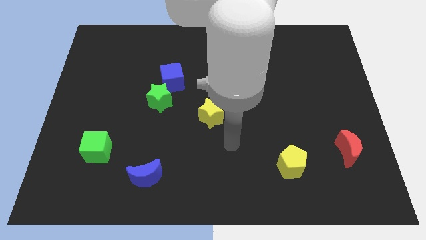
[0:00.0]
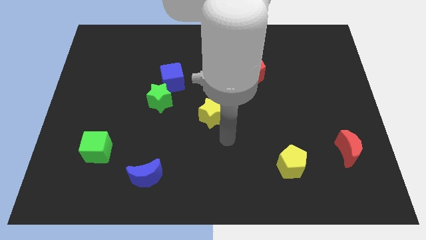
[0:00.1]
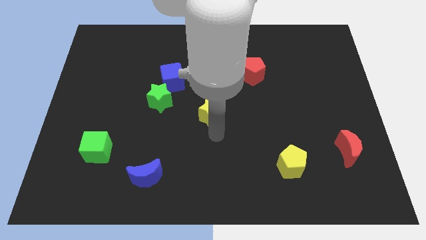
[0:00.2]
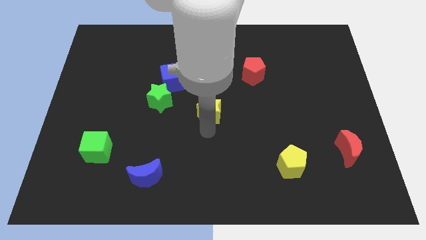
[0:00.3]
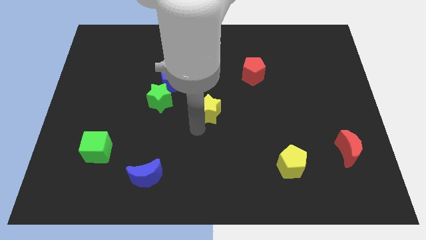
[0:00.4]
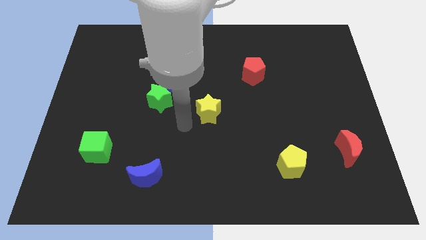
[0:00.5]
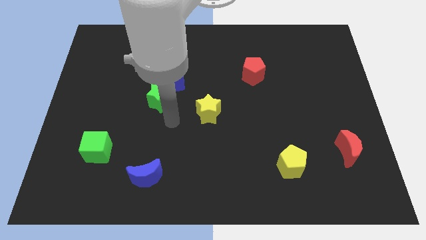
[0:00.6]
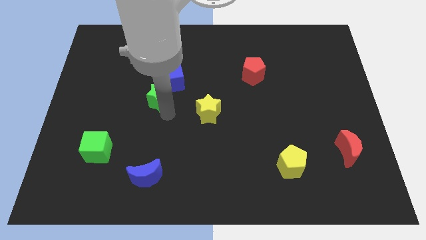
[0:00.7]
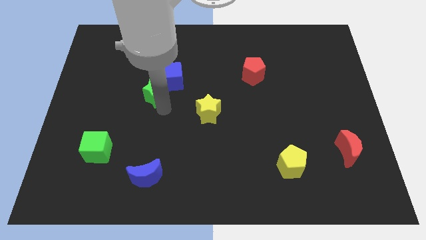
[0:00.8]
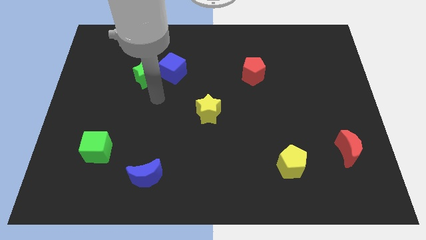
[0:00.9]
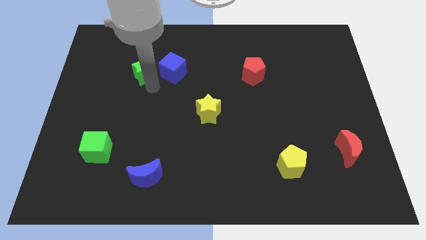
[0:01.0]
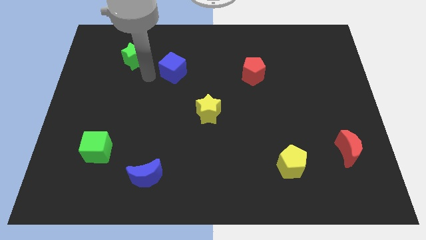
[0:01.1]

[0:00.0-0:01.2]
separate the blue cube from the green star

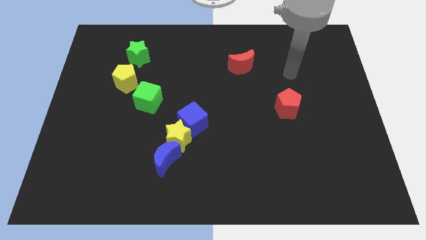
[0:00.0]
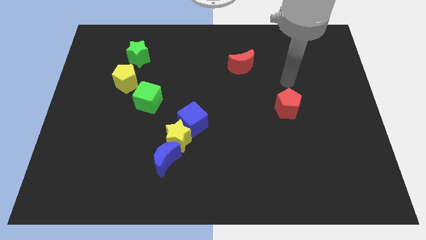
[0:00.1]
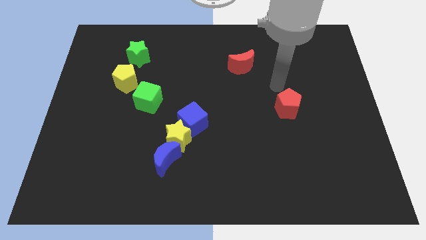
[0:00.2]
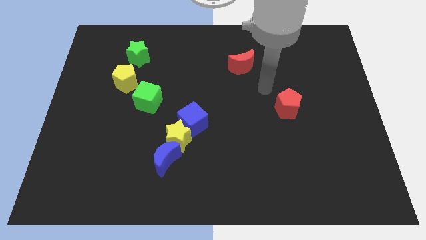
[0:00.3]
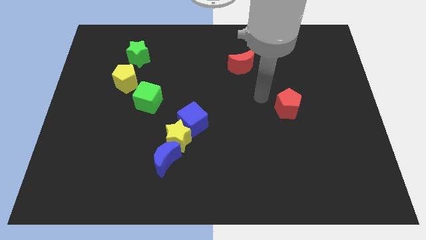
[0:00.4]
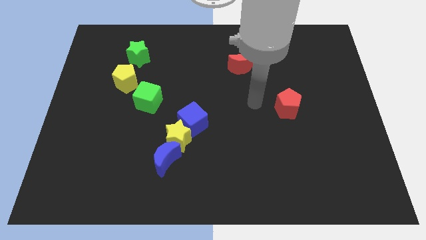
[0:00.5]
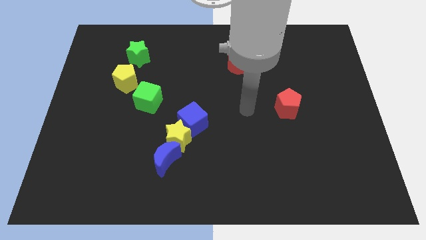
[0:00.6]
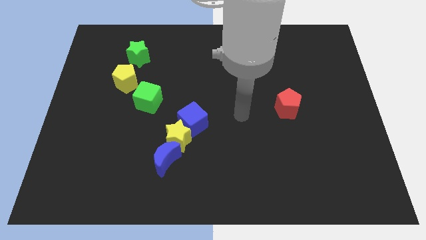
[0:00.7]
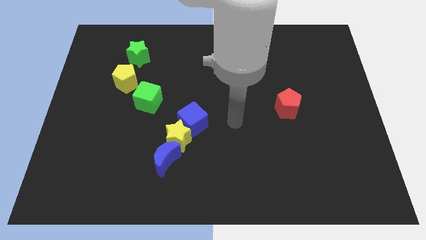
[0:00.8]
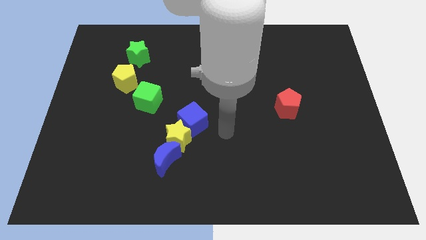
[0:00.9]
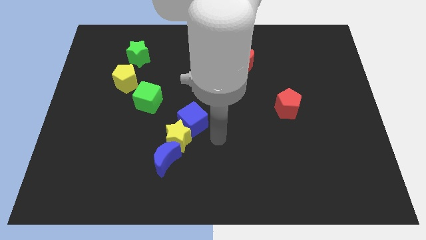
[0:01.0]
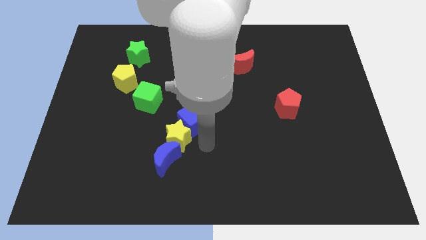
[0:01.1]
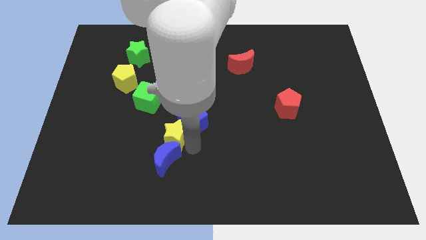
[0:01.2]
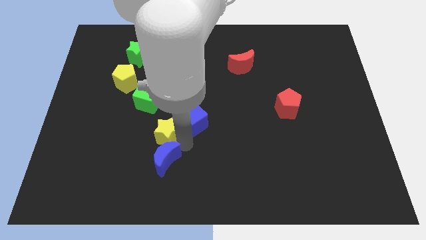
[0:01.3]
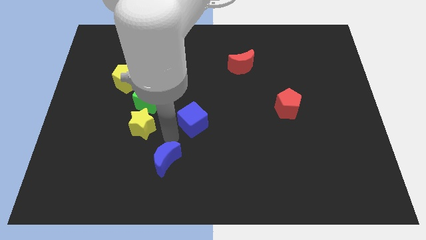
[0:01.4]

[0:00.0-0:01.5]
separate the blue cube from the yellow star

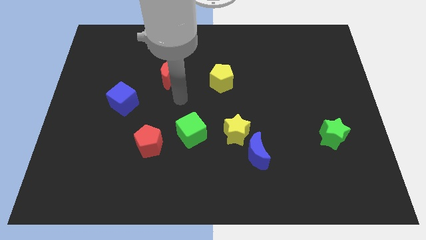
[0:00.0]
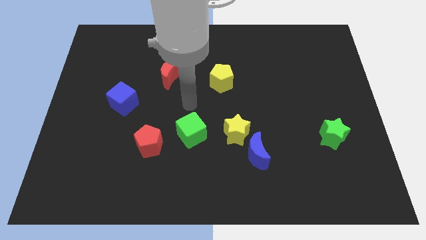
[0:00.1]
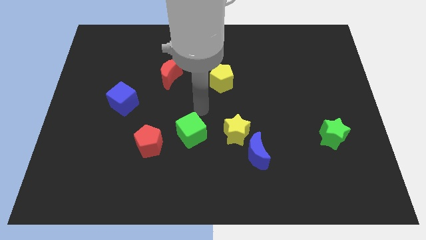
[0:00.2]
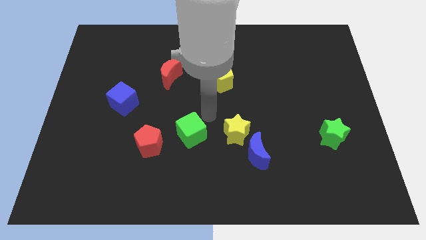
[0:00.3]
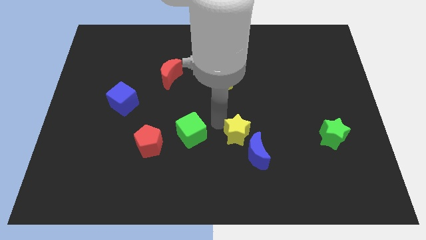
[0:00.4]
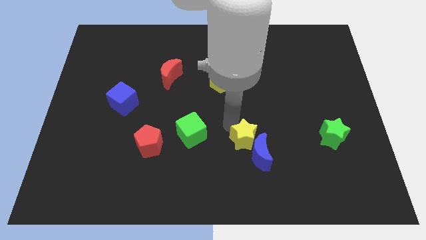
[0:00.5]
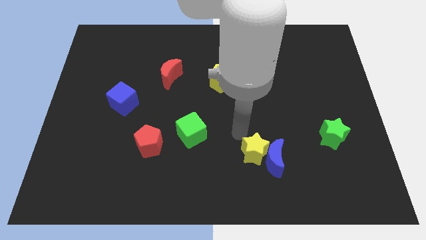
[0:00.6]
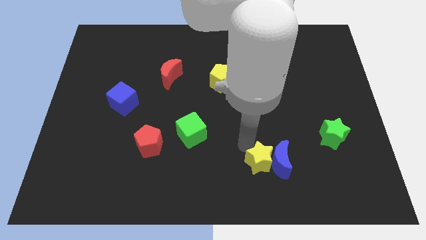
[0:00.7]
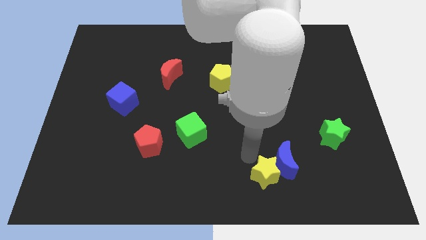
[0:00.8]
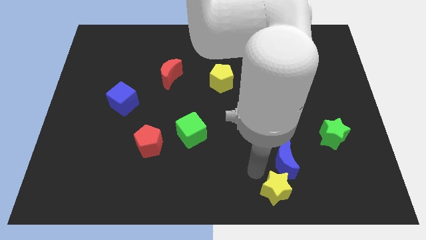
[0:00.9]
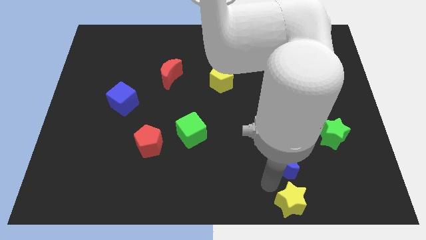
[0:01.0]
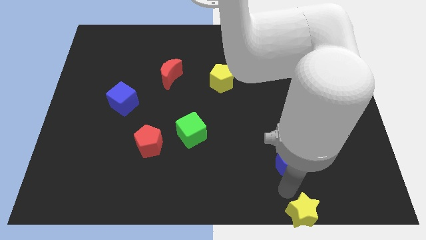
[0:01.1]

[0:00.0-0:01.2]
pull the blue moon apart from the yellow star

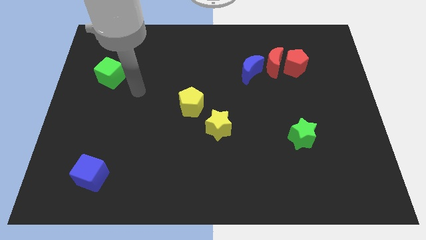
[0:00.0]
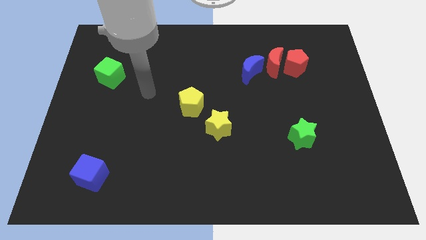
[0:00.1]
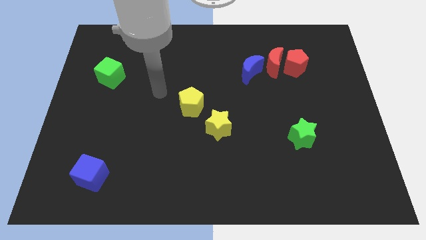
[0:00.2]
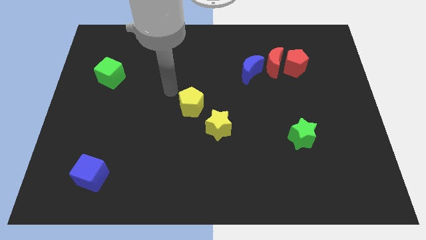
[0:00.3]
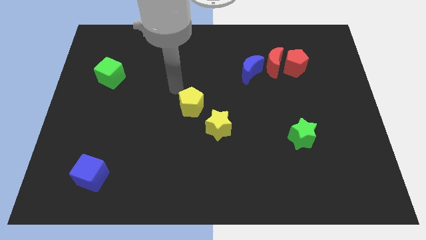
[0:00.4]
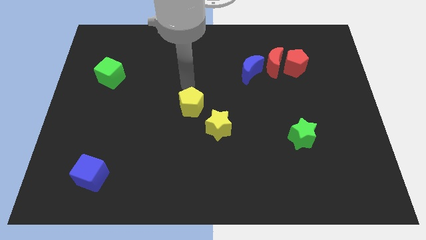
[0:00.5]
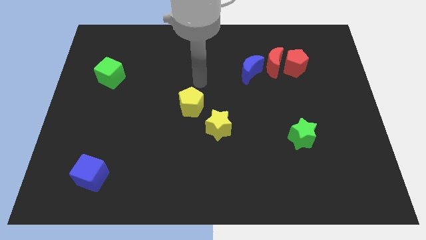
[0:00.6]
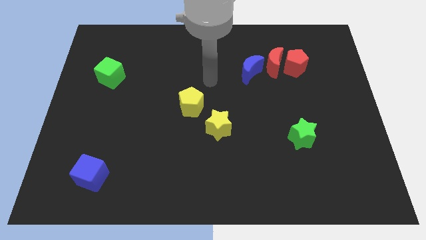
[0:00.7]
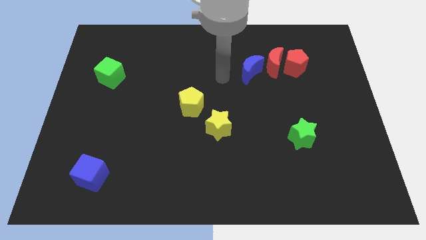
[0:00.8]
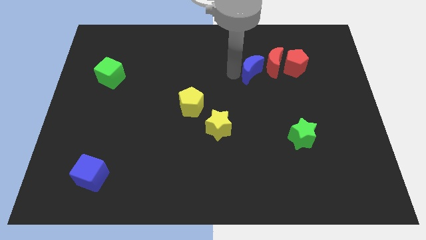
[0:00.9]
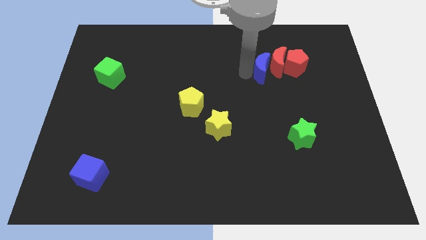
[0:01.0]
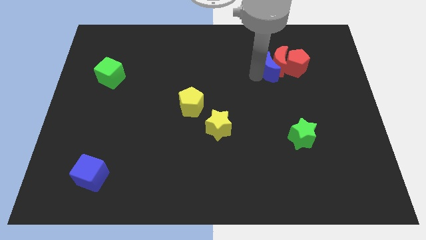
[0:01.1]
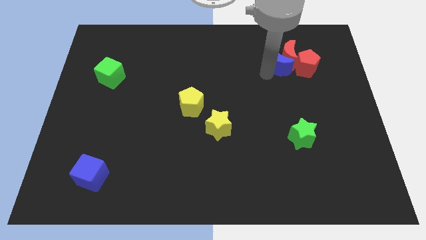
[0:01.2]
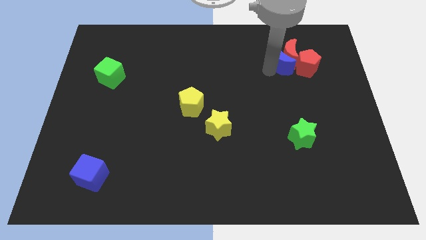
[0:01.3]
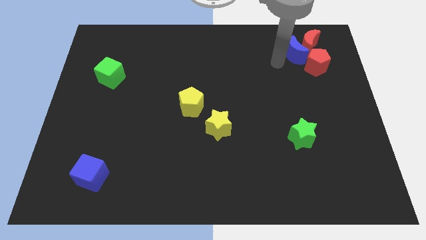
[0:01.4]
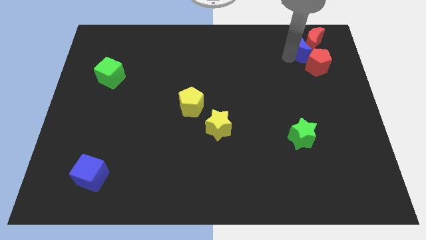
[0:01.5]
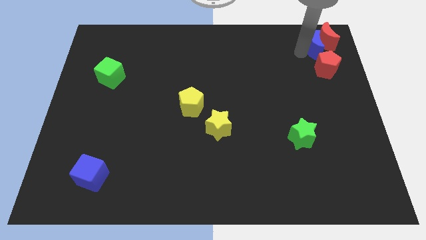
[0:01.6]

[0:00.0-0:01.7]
move the red pentagon away from the red moon

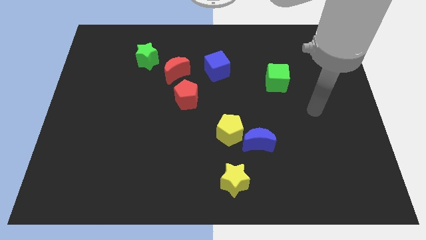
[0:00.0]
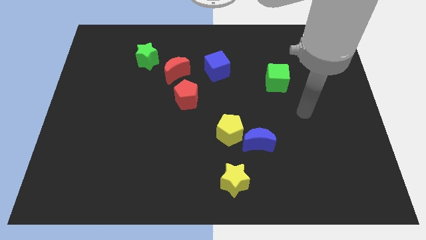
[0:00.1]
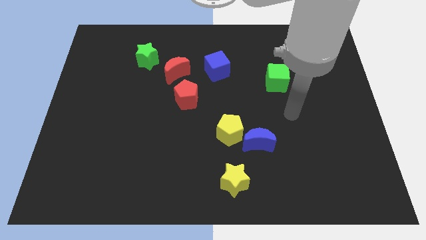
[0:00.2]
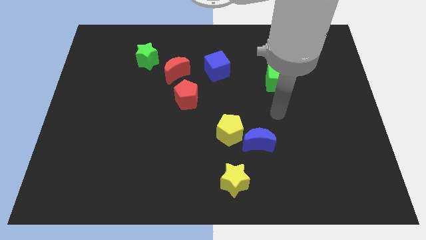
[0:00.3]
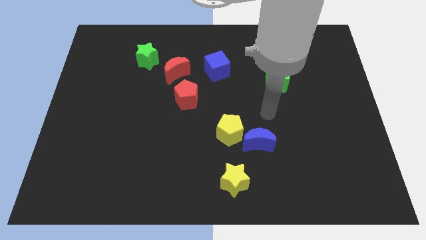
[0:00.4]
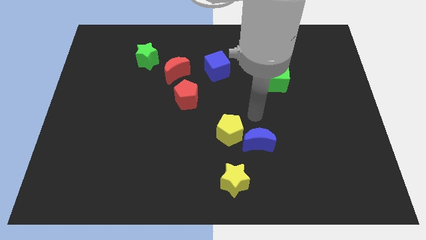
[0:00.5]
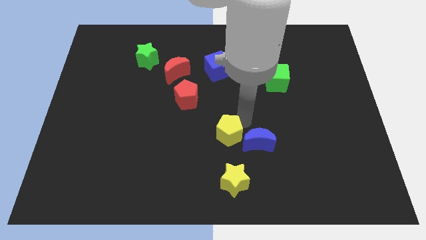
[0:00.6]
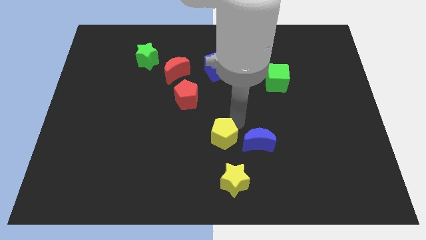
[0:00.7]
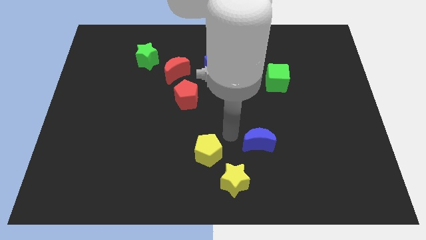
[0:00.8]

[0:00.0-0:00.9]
pull the blue moon apart from the yellow pentagon

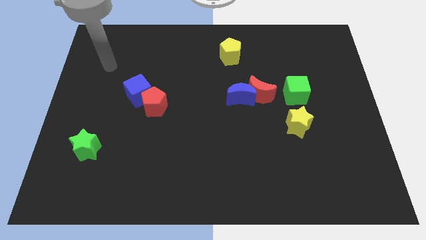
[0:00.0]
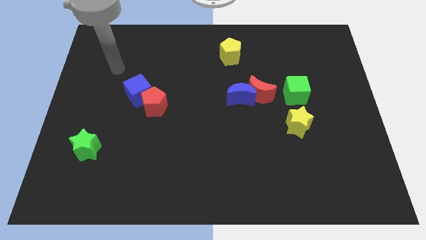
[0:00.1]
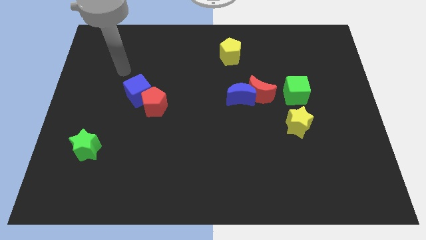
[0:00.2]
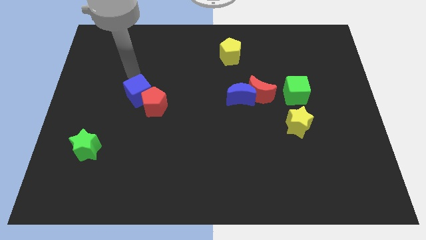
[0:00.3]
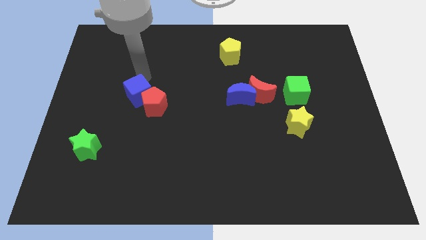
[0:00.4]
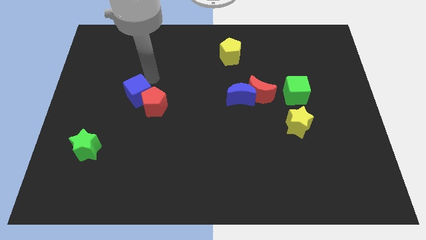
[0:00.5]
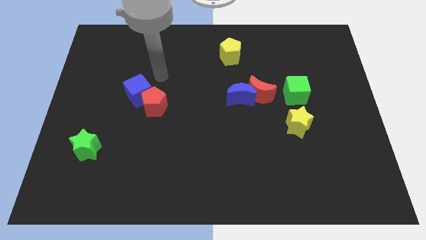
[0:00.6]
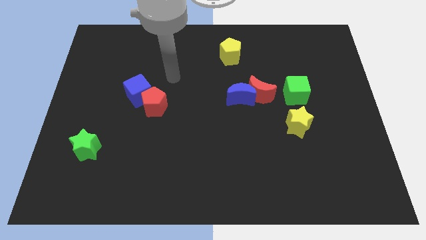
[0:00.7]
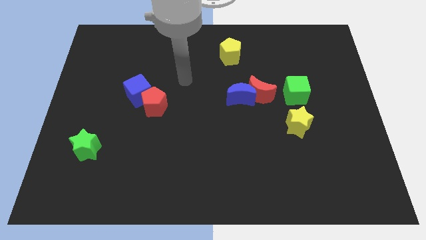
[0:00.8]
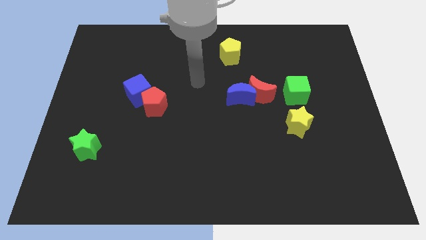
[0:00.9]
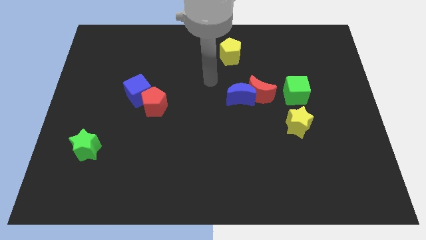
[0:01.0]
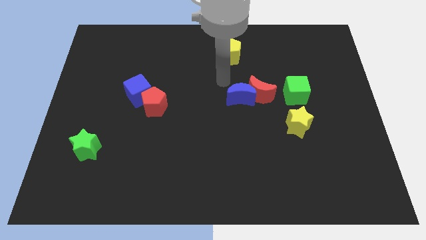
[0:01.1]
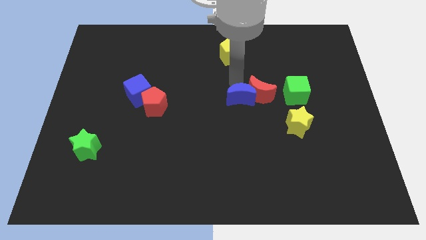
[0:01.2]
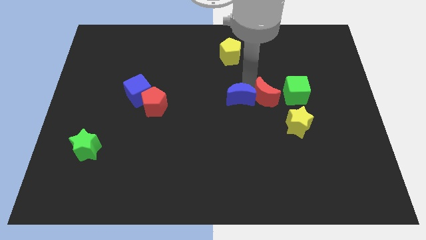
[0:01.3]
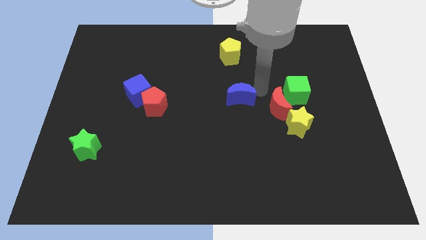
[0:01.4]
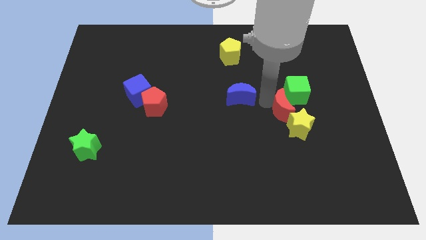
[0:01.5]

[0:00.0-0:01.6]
separate the blue moon from the red moon

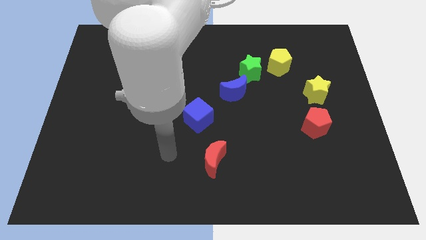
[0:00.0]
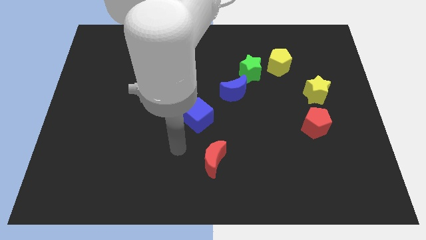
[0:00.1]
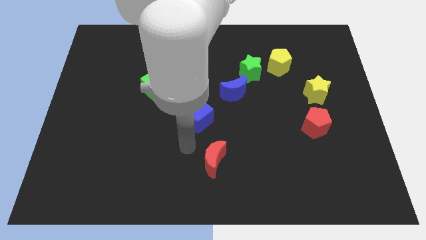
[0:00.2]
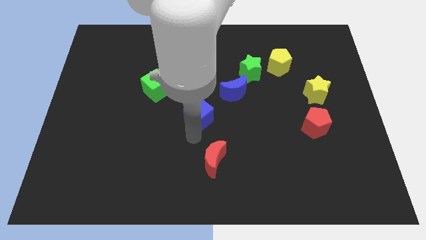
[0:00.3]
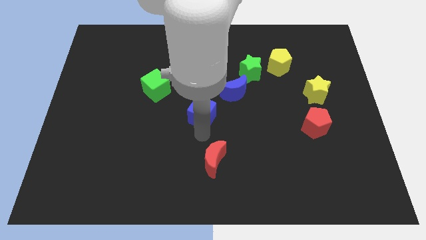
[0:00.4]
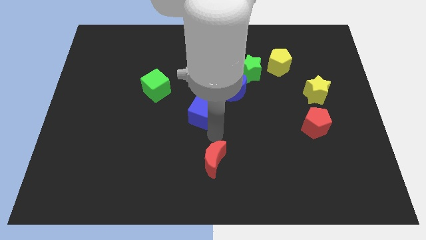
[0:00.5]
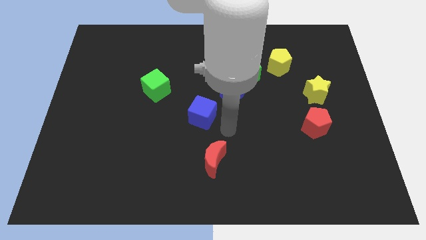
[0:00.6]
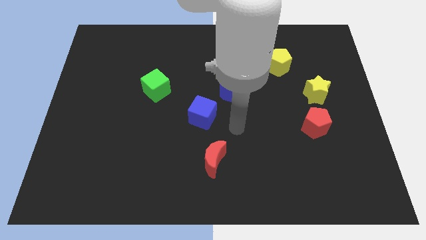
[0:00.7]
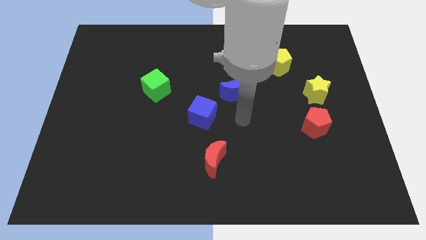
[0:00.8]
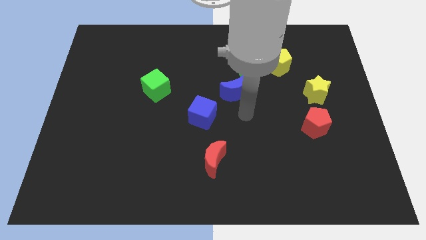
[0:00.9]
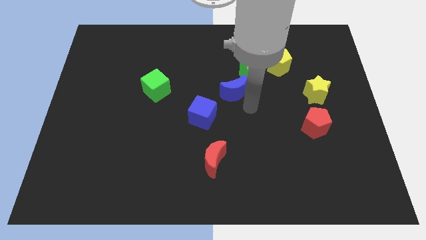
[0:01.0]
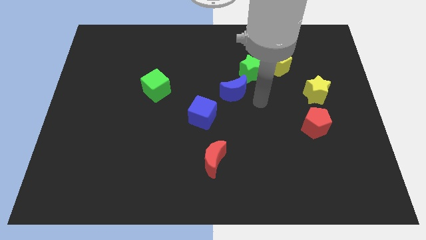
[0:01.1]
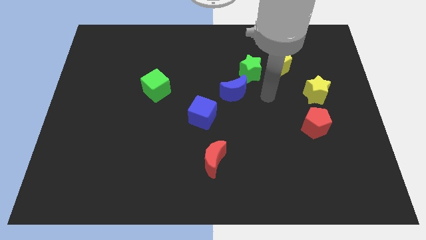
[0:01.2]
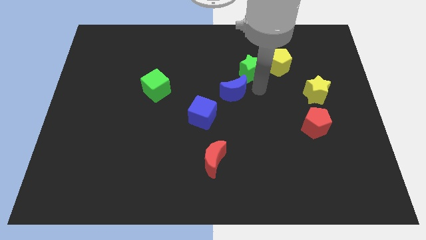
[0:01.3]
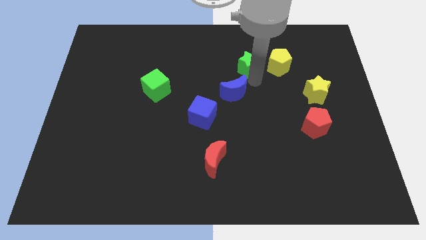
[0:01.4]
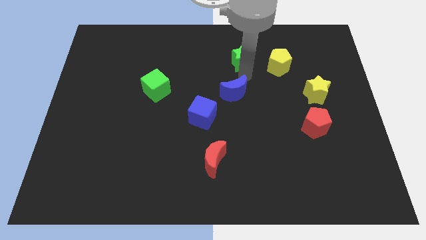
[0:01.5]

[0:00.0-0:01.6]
move the blue moon away from the green star
